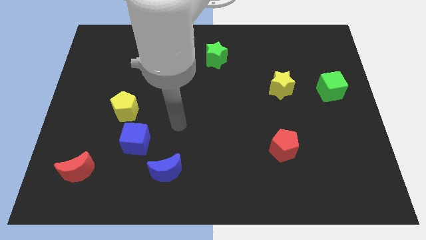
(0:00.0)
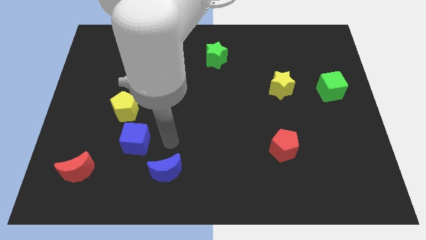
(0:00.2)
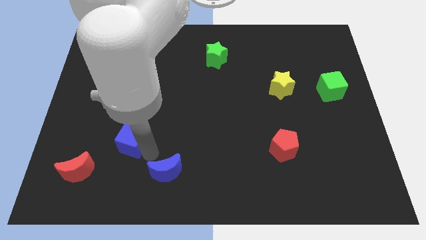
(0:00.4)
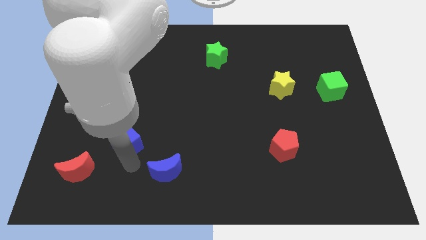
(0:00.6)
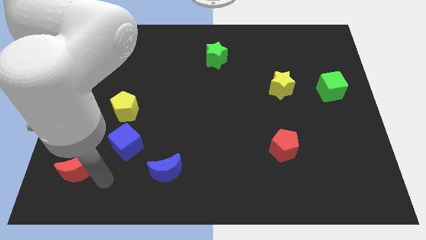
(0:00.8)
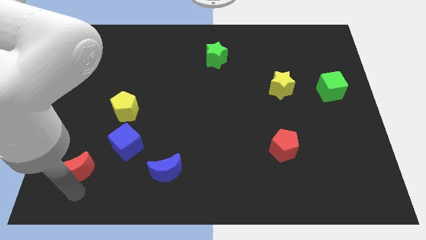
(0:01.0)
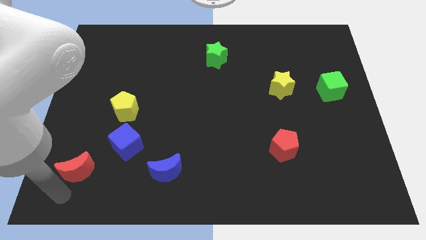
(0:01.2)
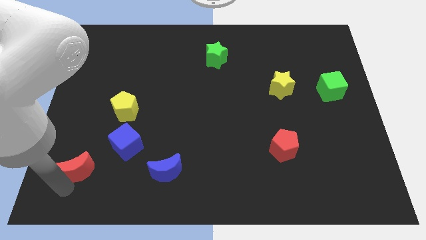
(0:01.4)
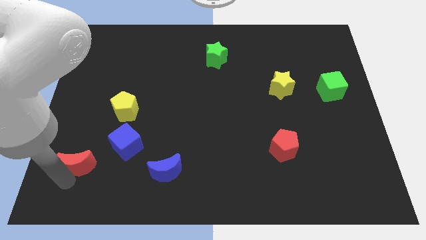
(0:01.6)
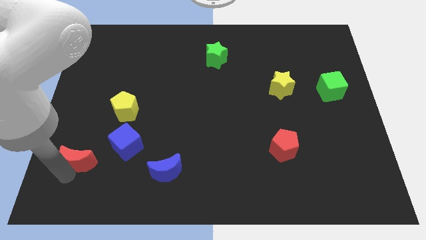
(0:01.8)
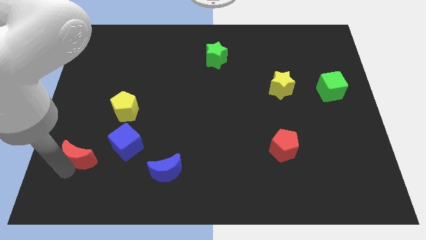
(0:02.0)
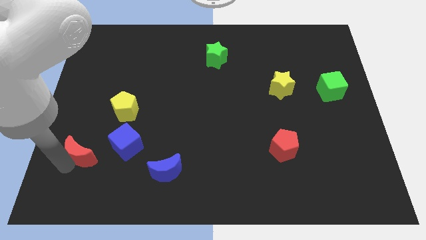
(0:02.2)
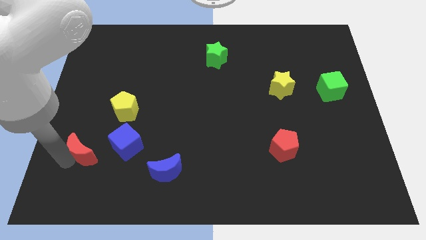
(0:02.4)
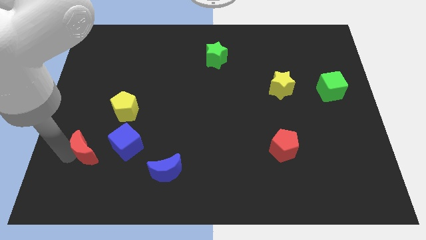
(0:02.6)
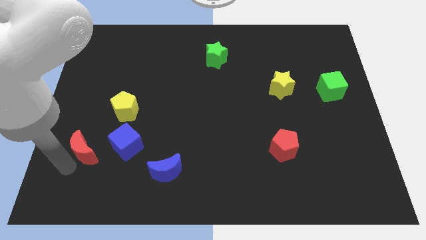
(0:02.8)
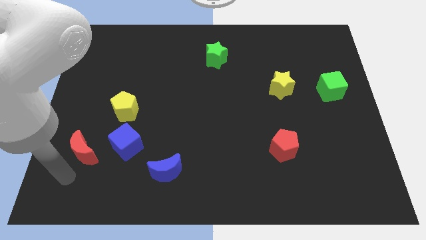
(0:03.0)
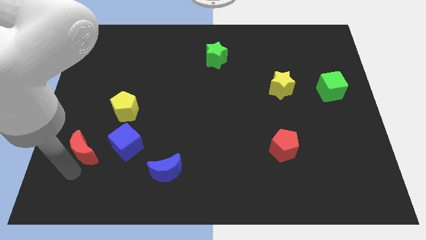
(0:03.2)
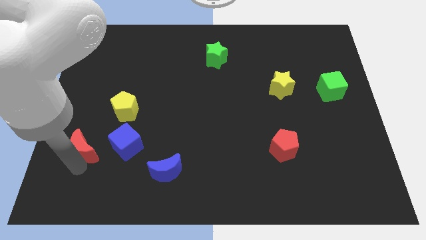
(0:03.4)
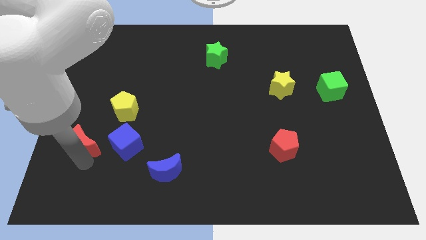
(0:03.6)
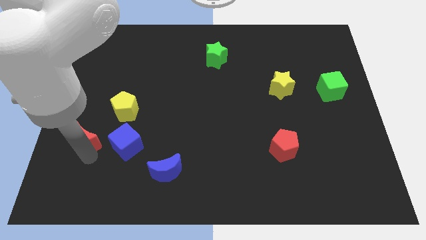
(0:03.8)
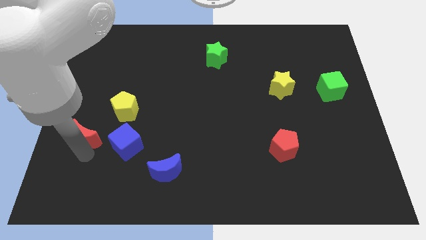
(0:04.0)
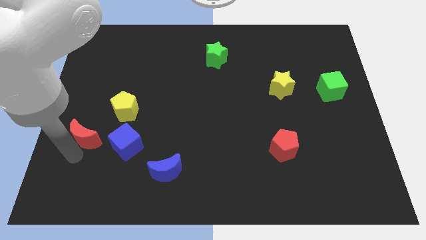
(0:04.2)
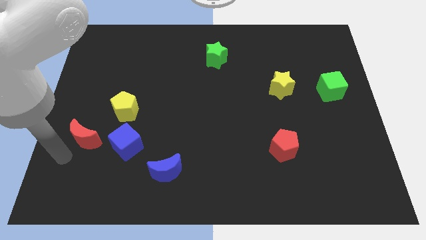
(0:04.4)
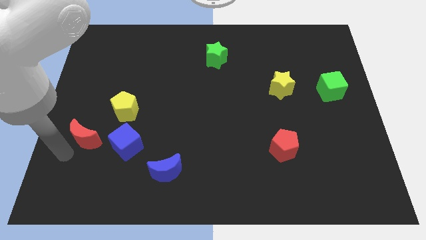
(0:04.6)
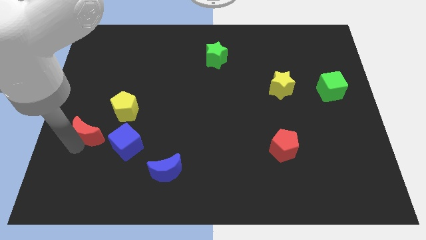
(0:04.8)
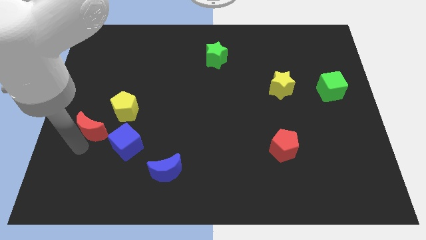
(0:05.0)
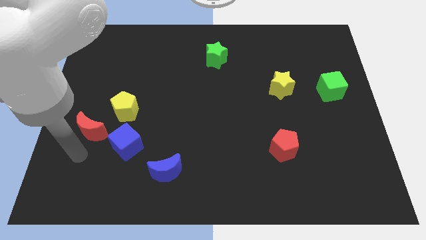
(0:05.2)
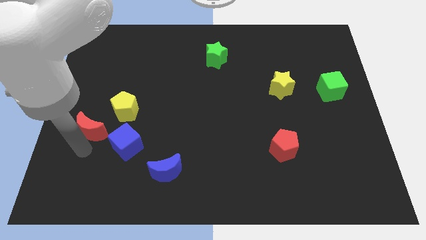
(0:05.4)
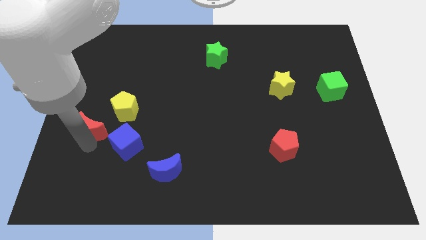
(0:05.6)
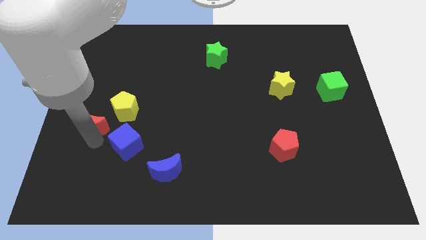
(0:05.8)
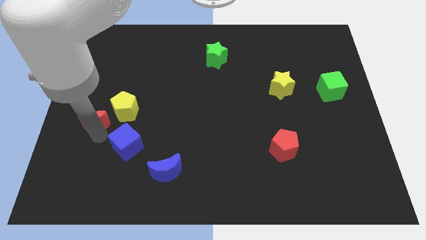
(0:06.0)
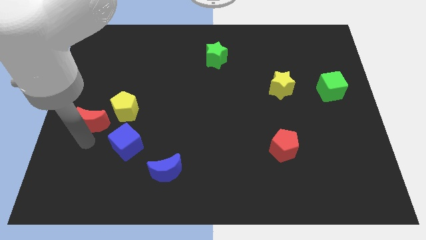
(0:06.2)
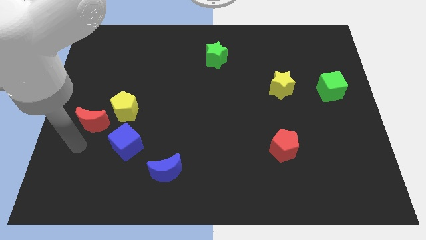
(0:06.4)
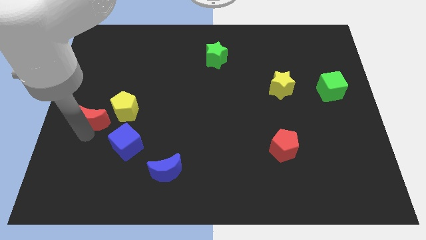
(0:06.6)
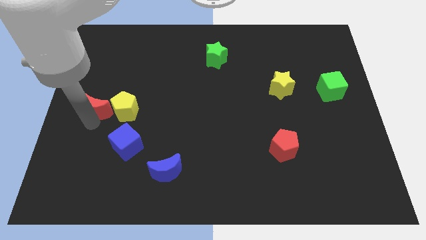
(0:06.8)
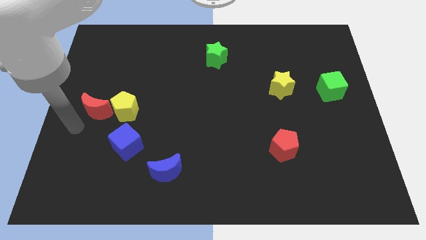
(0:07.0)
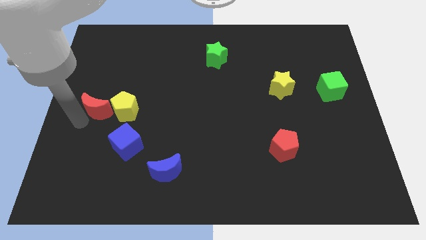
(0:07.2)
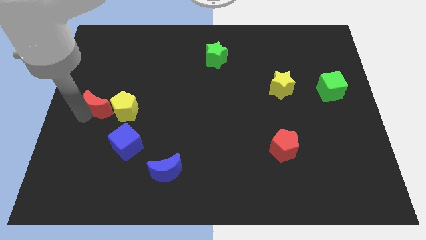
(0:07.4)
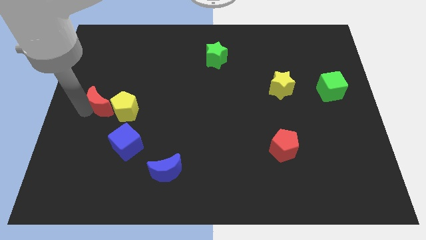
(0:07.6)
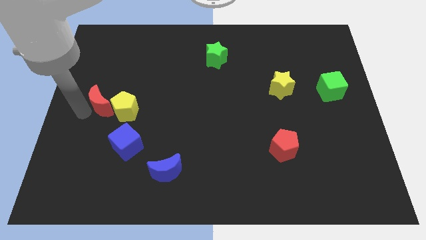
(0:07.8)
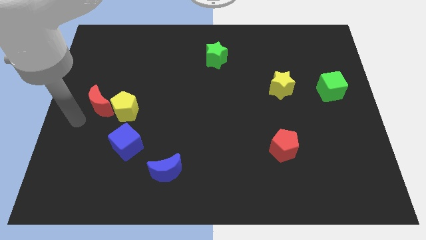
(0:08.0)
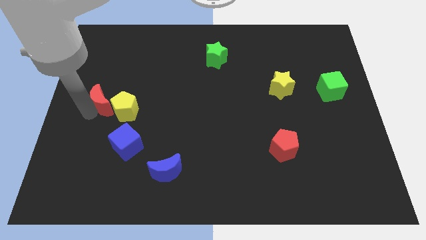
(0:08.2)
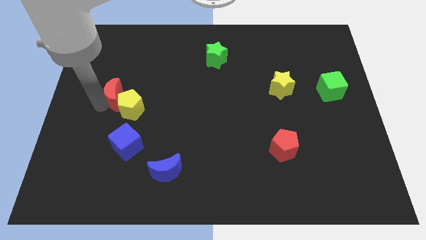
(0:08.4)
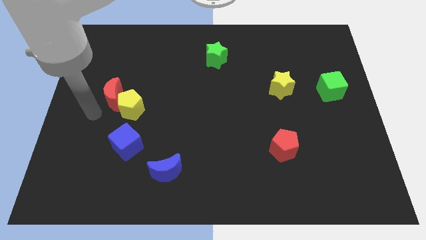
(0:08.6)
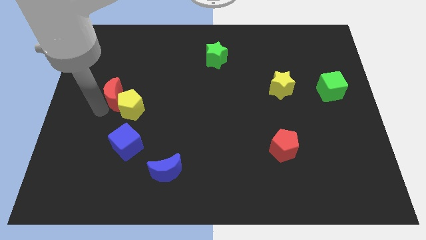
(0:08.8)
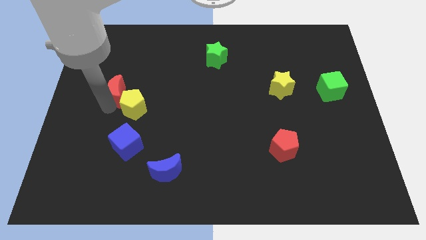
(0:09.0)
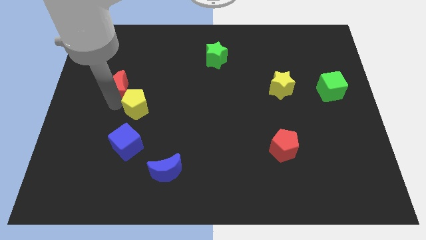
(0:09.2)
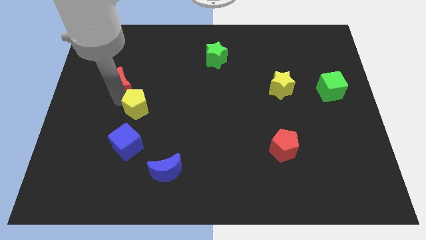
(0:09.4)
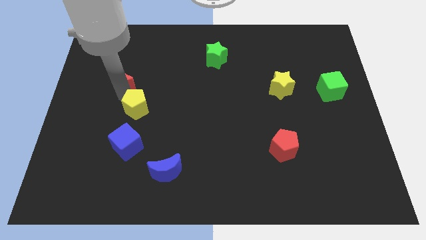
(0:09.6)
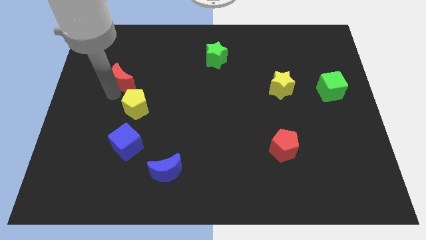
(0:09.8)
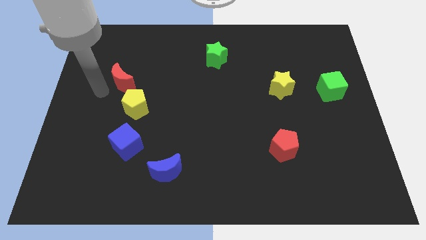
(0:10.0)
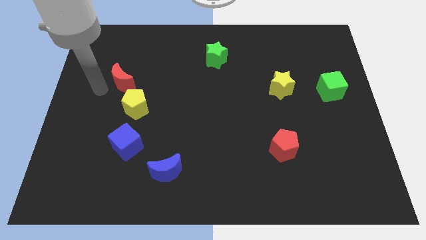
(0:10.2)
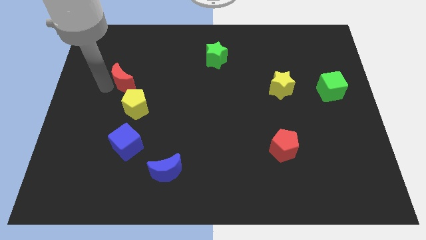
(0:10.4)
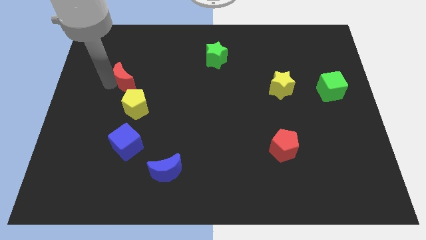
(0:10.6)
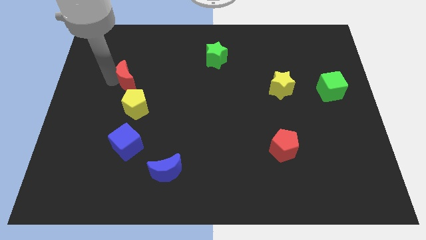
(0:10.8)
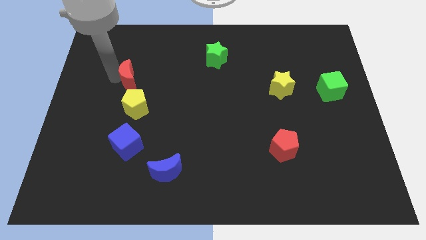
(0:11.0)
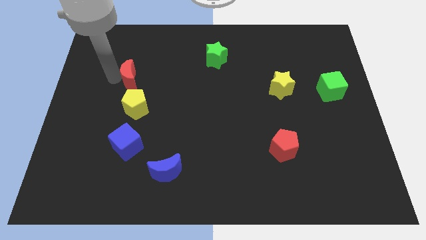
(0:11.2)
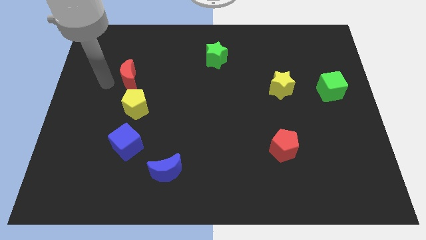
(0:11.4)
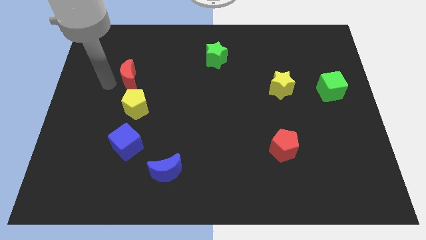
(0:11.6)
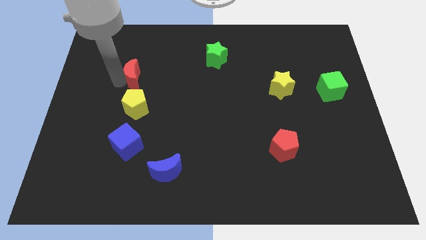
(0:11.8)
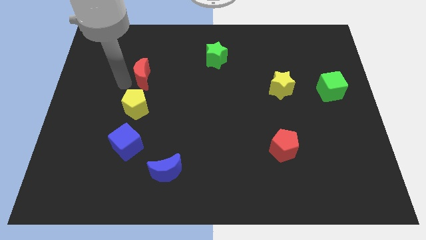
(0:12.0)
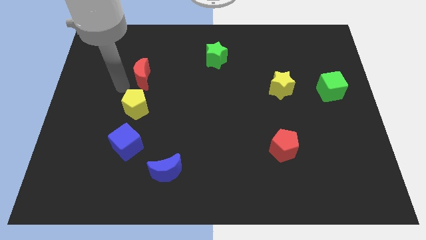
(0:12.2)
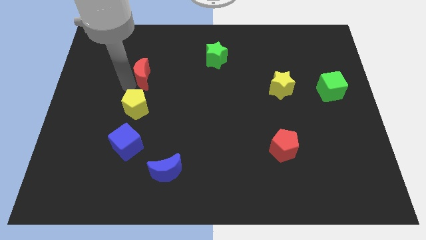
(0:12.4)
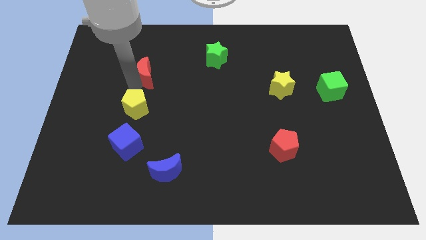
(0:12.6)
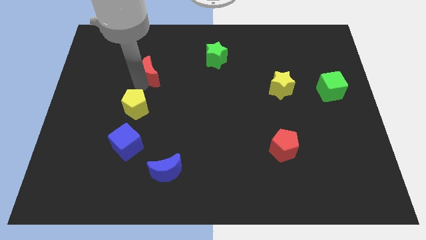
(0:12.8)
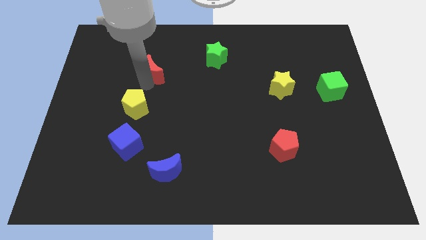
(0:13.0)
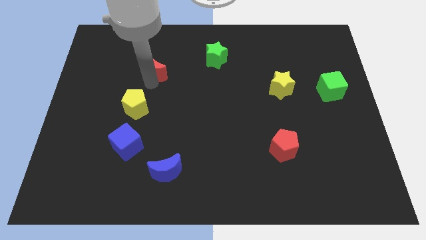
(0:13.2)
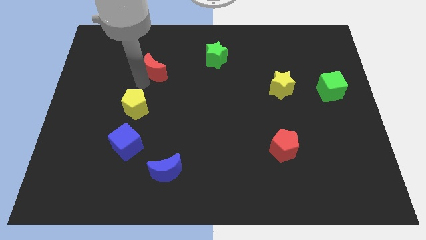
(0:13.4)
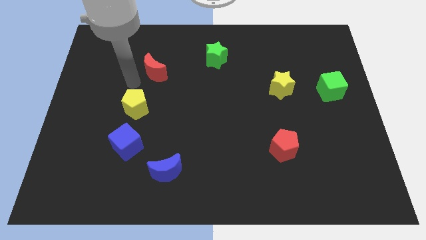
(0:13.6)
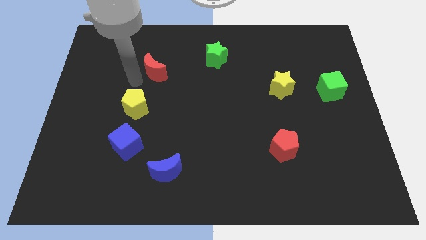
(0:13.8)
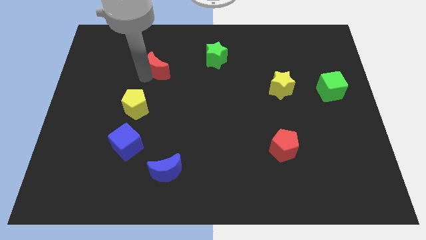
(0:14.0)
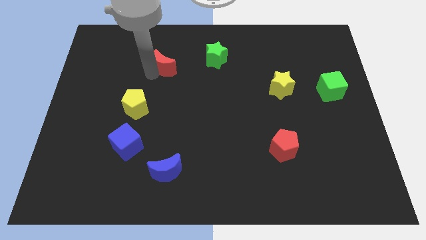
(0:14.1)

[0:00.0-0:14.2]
move the red moon left of the green star
